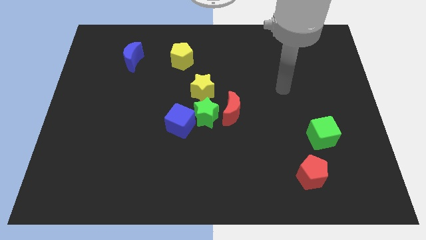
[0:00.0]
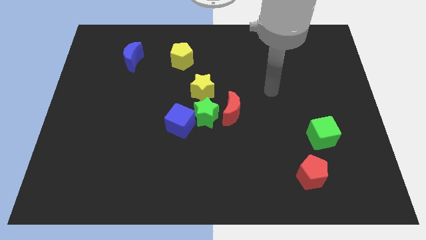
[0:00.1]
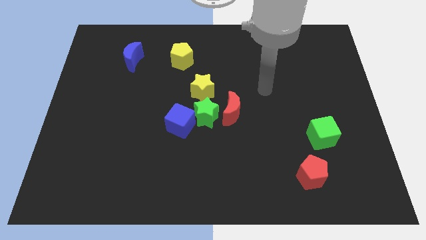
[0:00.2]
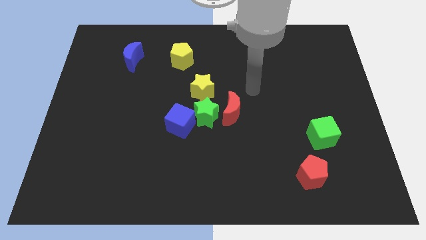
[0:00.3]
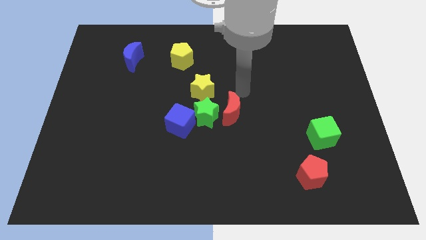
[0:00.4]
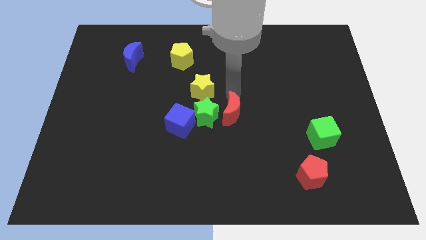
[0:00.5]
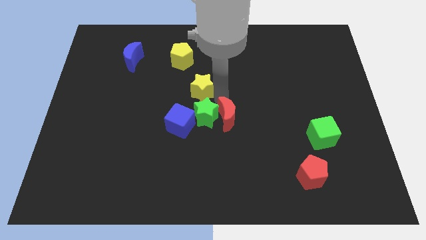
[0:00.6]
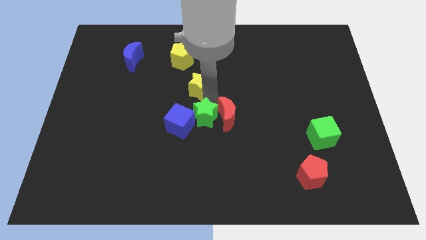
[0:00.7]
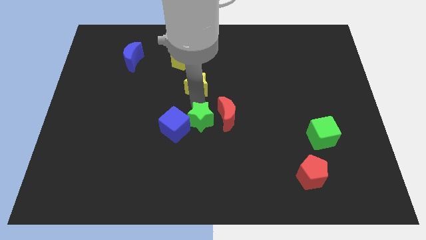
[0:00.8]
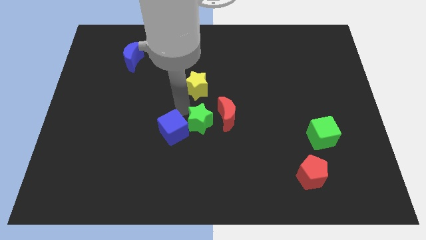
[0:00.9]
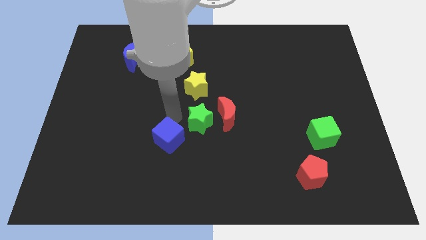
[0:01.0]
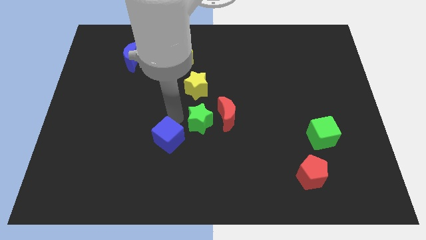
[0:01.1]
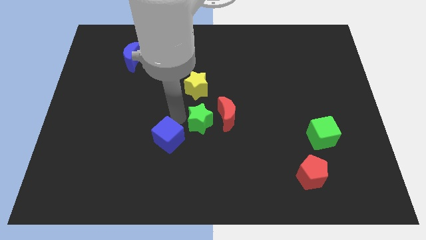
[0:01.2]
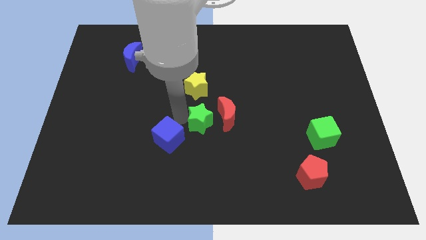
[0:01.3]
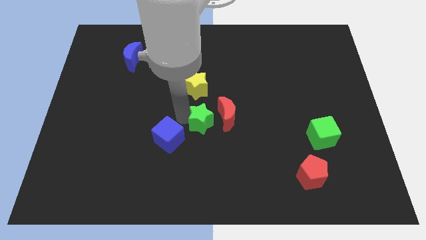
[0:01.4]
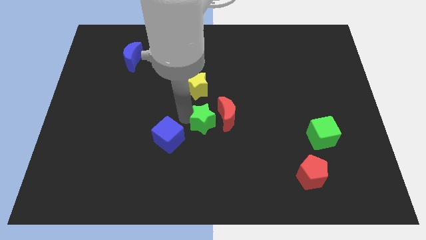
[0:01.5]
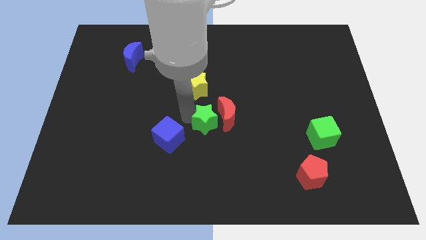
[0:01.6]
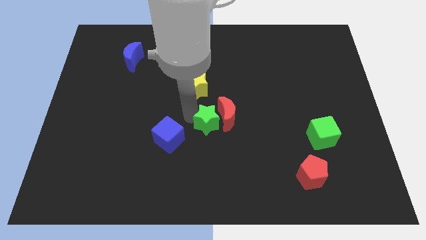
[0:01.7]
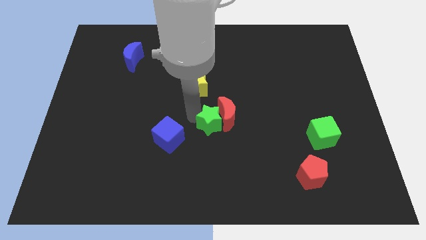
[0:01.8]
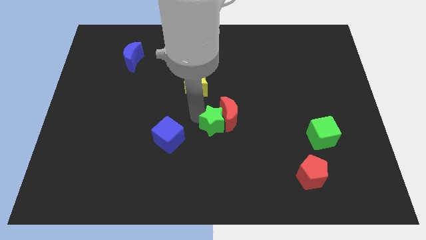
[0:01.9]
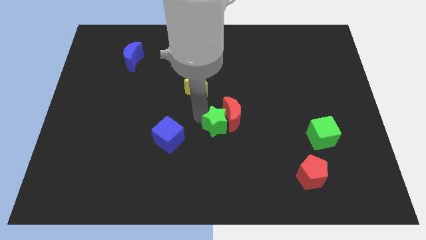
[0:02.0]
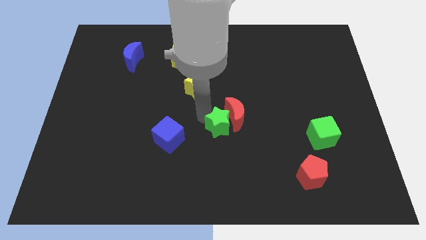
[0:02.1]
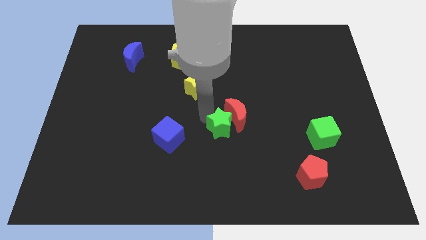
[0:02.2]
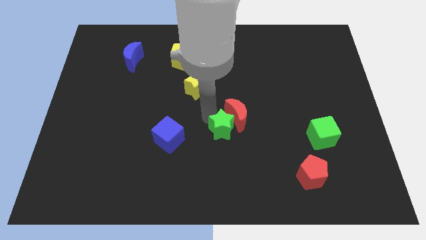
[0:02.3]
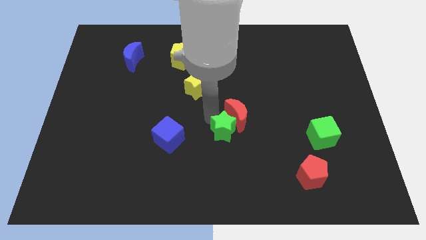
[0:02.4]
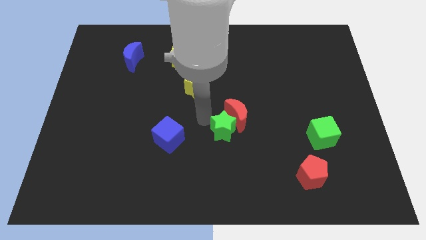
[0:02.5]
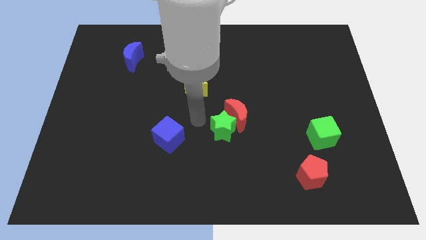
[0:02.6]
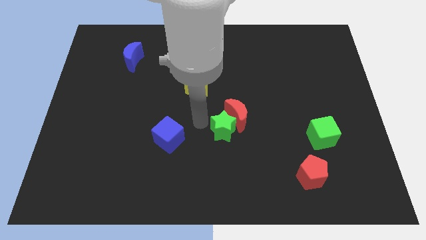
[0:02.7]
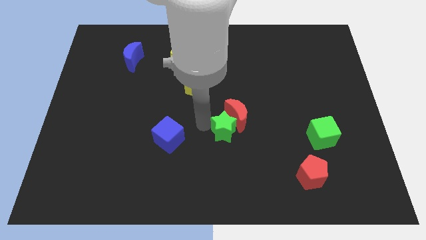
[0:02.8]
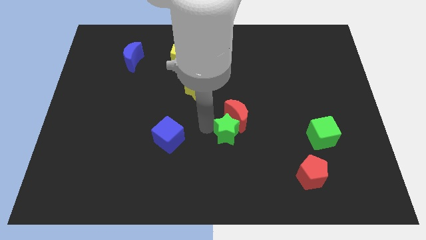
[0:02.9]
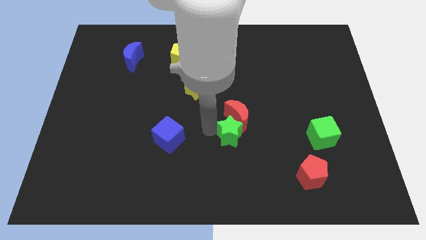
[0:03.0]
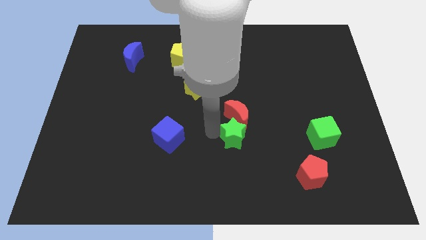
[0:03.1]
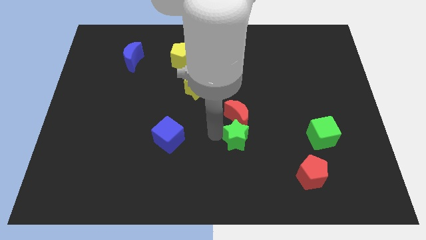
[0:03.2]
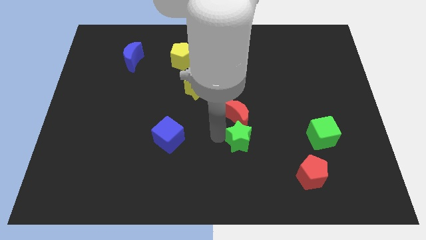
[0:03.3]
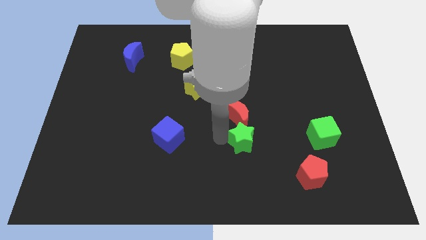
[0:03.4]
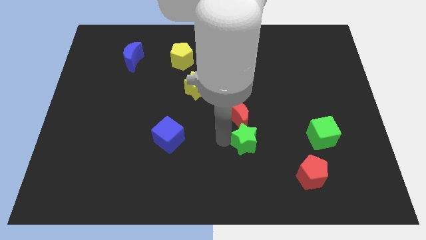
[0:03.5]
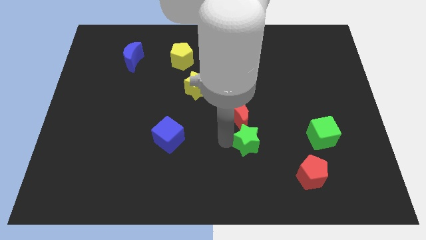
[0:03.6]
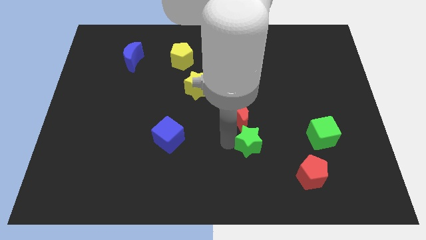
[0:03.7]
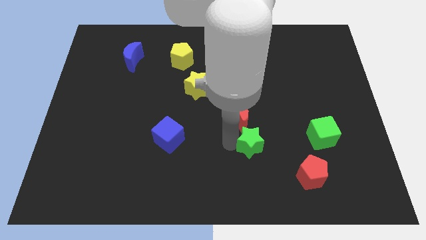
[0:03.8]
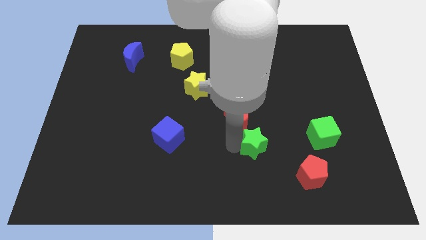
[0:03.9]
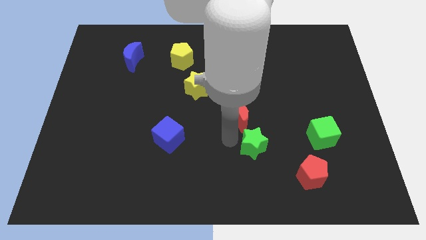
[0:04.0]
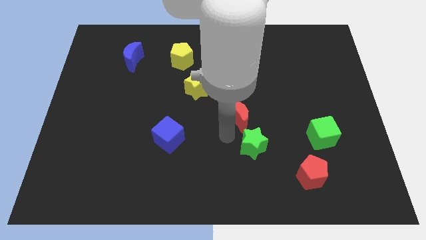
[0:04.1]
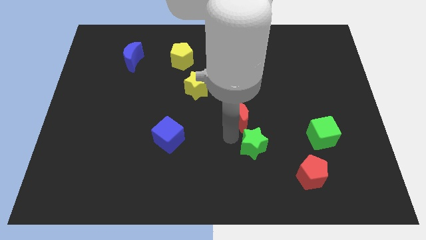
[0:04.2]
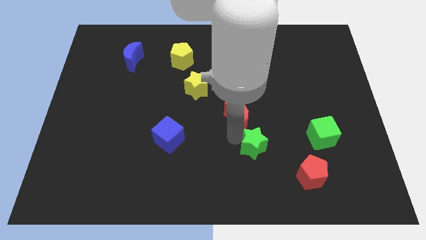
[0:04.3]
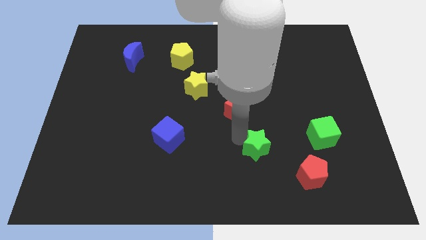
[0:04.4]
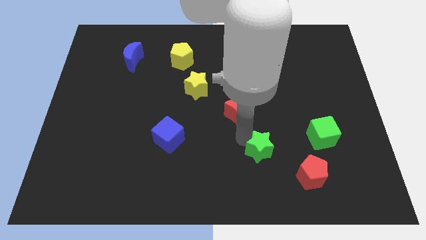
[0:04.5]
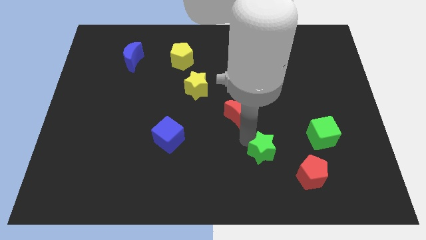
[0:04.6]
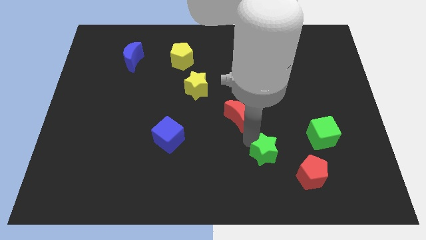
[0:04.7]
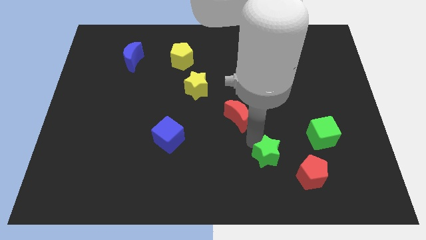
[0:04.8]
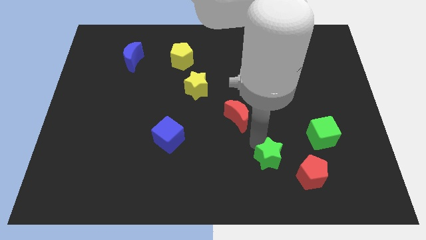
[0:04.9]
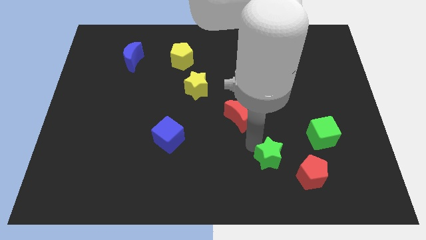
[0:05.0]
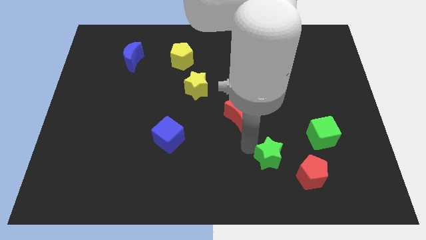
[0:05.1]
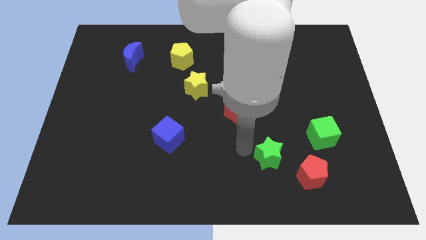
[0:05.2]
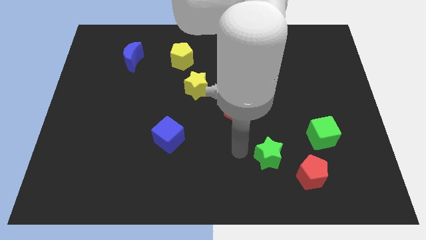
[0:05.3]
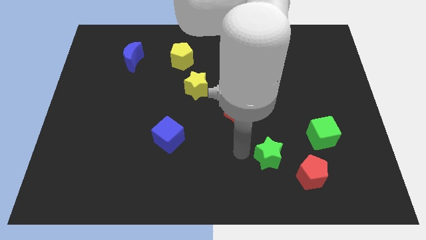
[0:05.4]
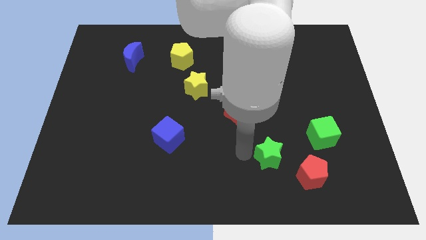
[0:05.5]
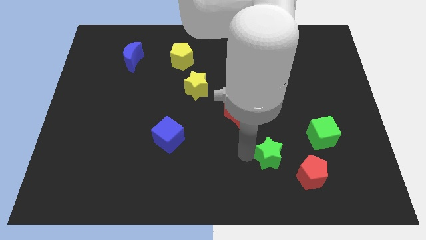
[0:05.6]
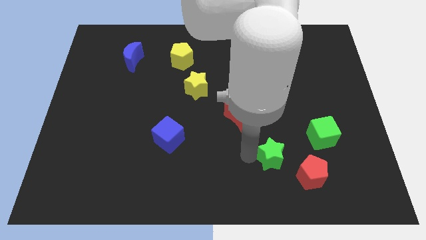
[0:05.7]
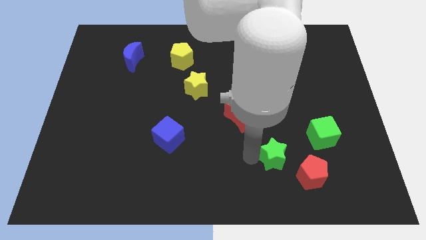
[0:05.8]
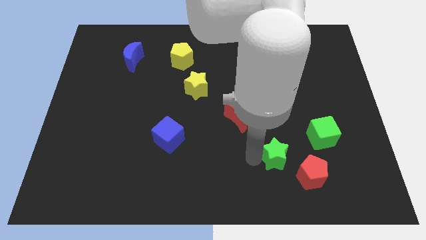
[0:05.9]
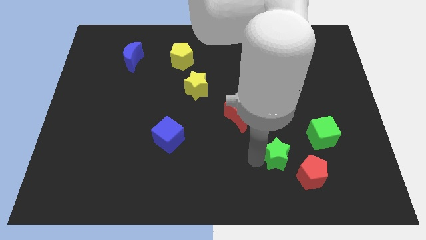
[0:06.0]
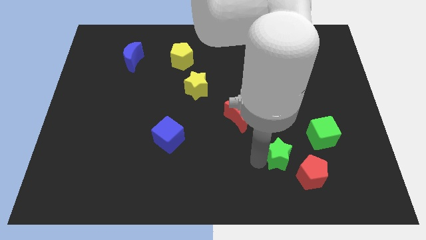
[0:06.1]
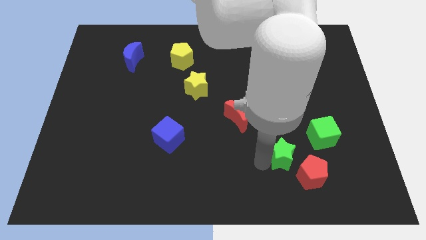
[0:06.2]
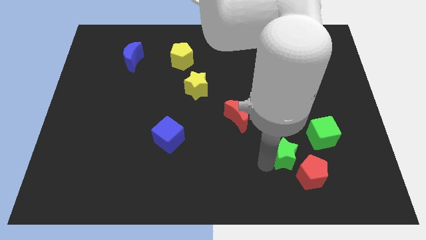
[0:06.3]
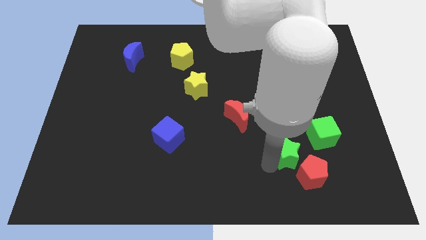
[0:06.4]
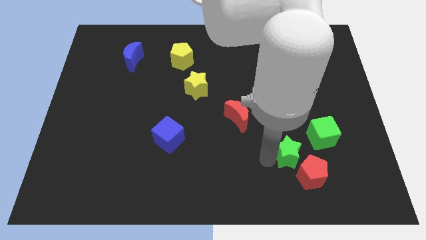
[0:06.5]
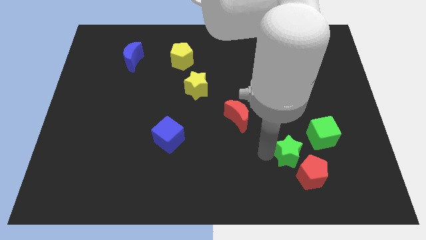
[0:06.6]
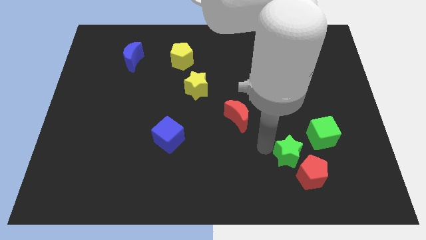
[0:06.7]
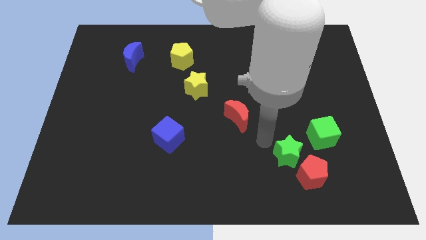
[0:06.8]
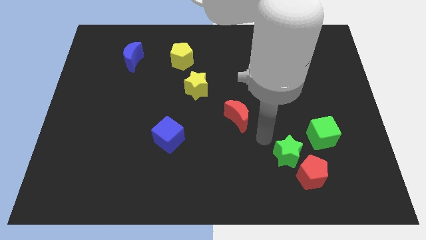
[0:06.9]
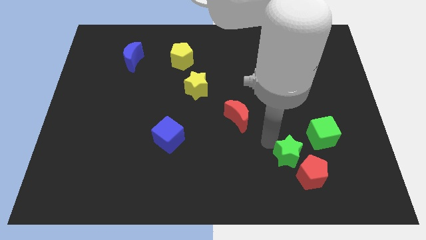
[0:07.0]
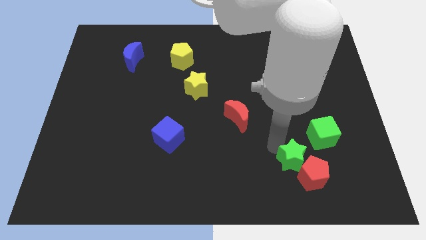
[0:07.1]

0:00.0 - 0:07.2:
put the green star close to the red pentagon
